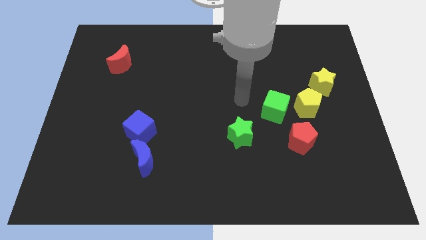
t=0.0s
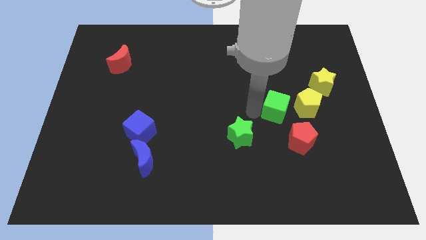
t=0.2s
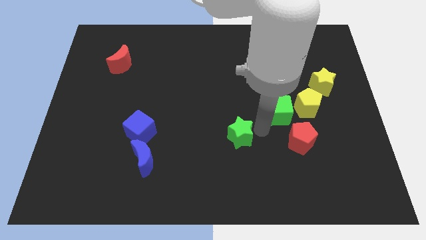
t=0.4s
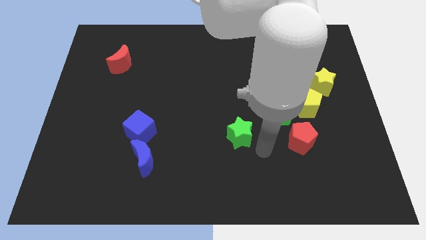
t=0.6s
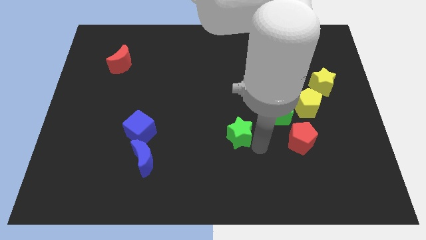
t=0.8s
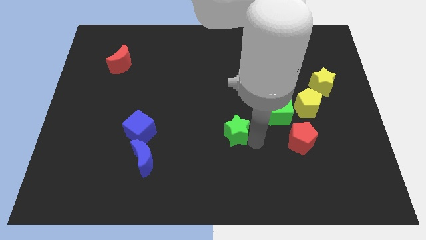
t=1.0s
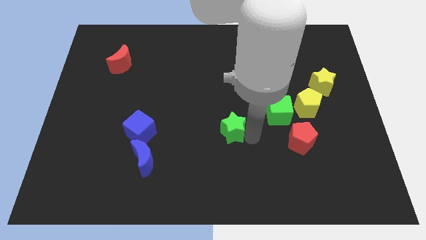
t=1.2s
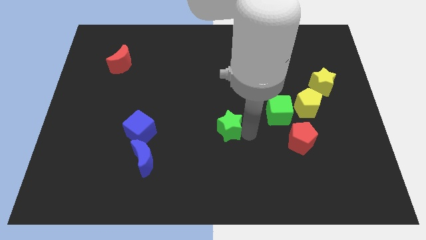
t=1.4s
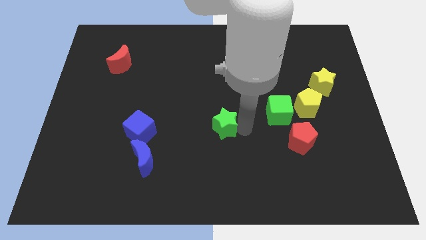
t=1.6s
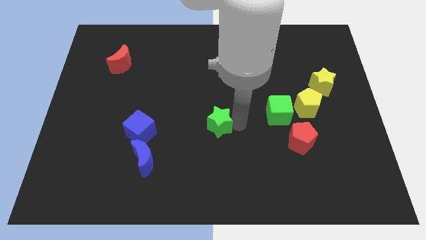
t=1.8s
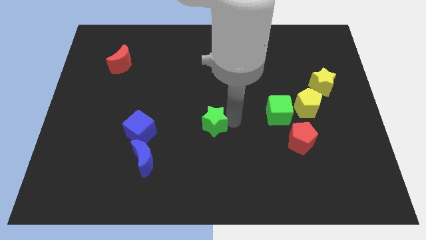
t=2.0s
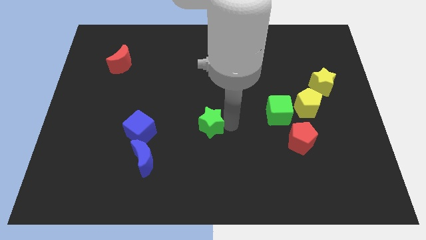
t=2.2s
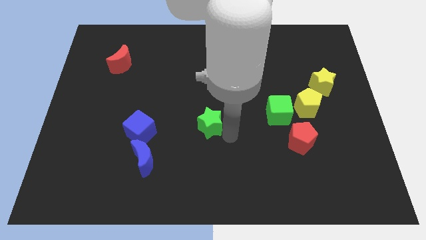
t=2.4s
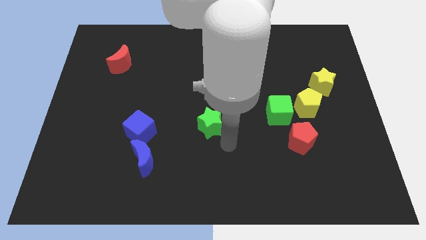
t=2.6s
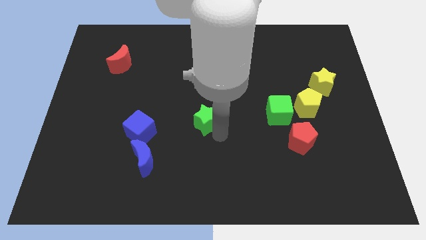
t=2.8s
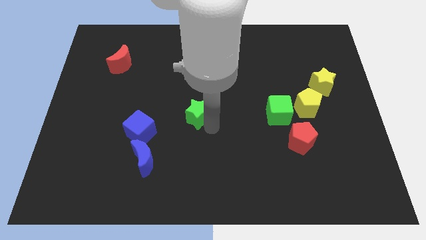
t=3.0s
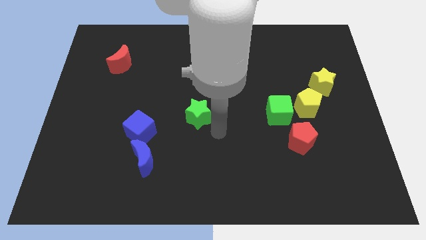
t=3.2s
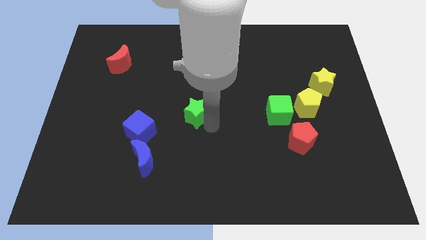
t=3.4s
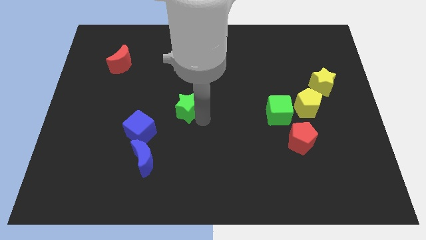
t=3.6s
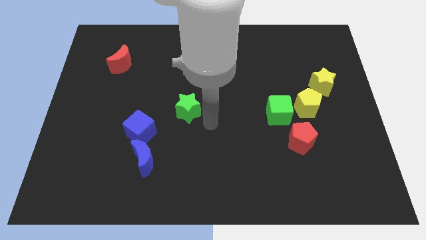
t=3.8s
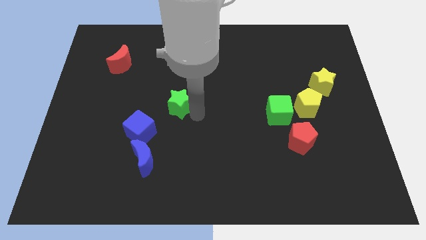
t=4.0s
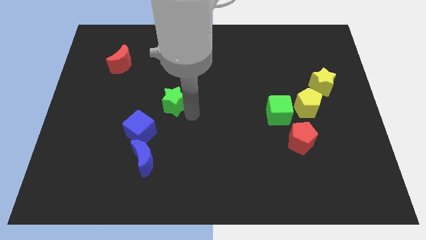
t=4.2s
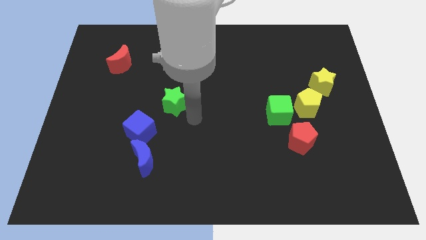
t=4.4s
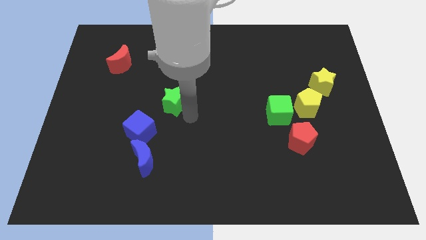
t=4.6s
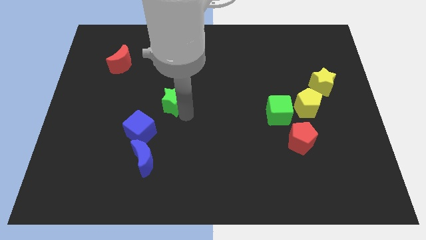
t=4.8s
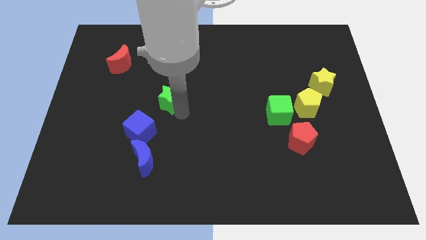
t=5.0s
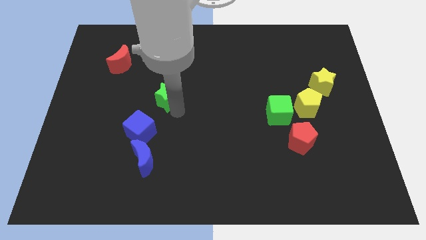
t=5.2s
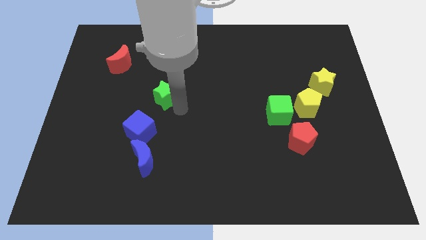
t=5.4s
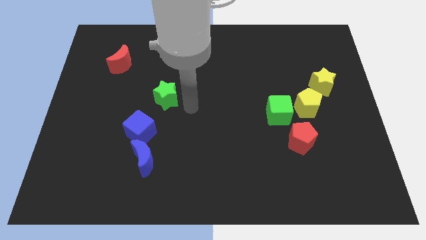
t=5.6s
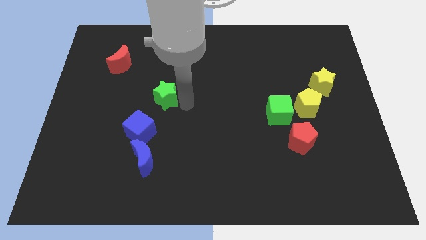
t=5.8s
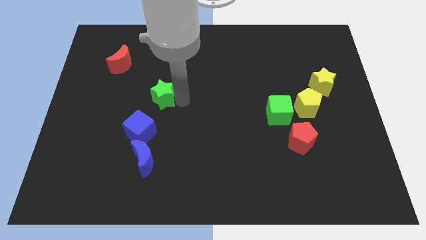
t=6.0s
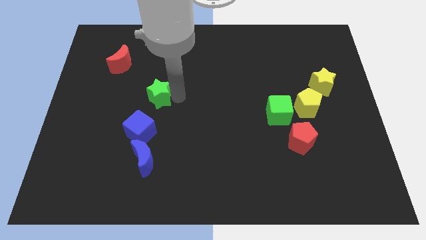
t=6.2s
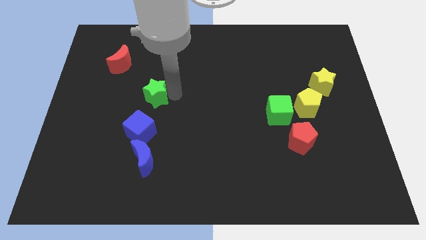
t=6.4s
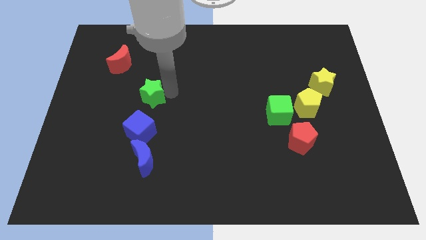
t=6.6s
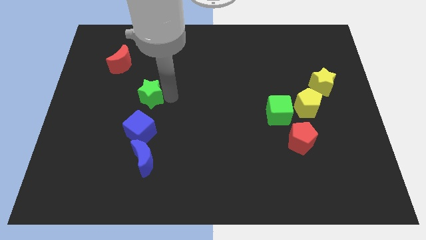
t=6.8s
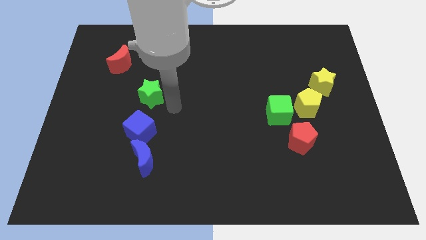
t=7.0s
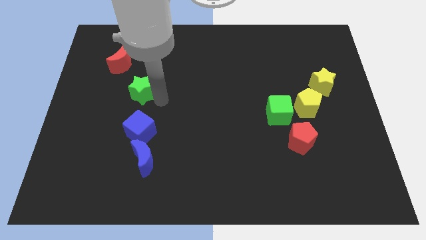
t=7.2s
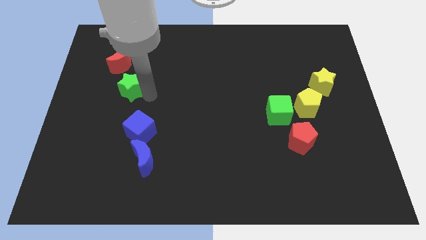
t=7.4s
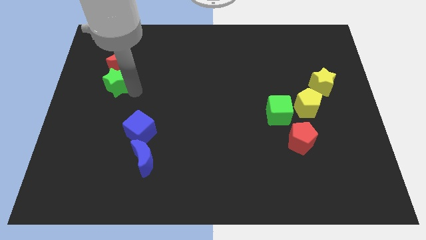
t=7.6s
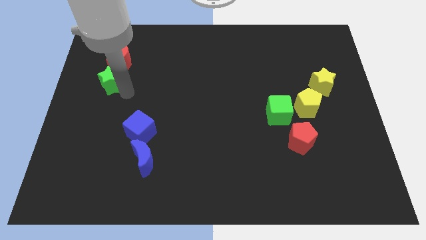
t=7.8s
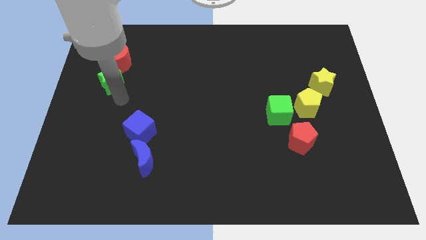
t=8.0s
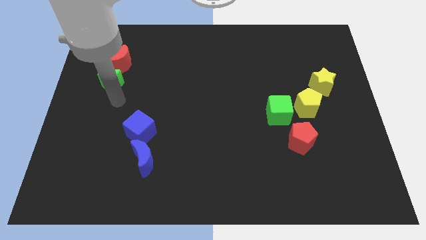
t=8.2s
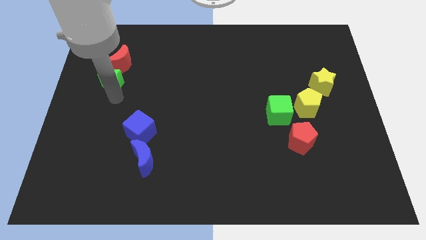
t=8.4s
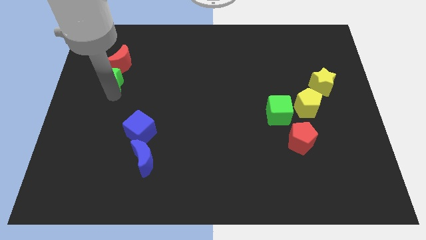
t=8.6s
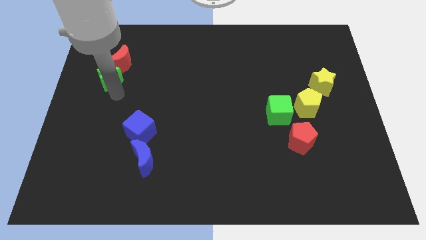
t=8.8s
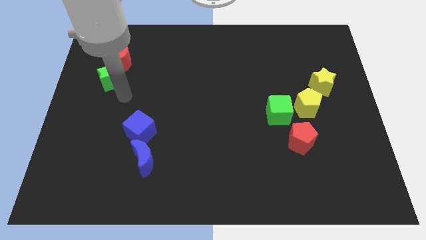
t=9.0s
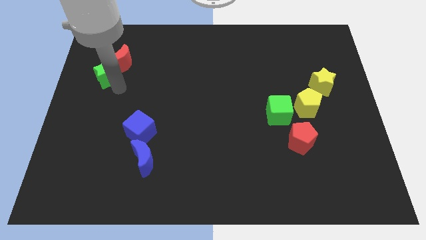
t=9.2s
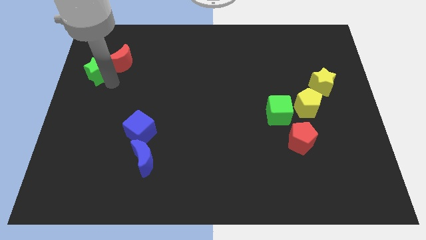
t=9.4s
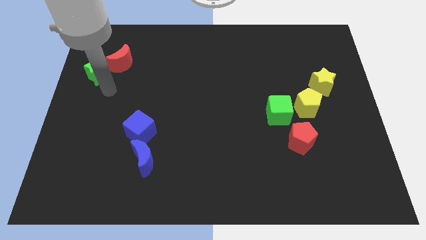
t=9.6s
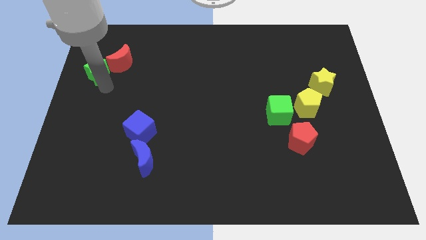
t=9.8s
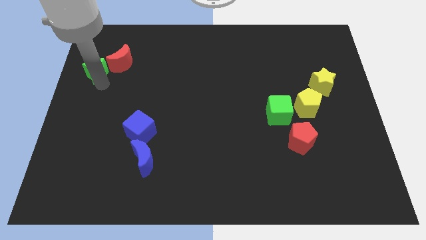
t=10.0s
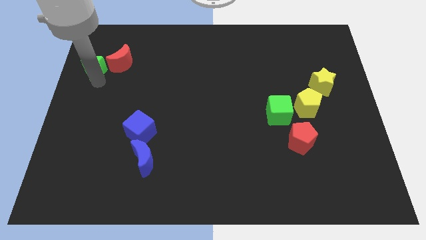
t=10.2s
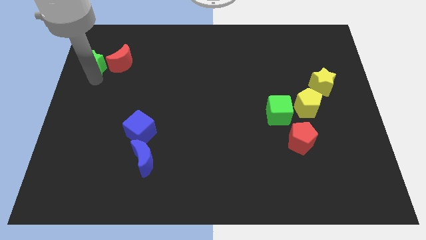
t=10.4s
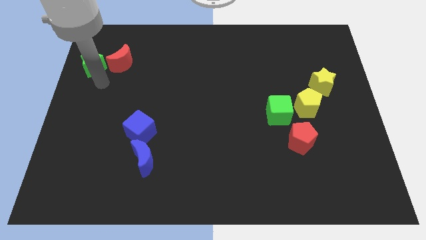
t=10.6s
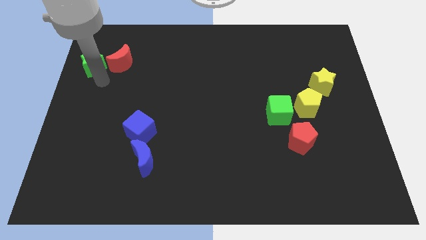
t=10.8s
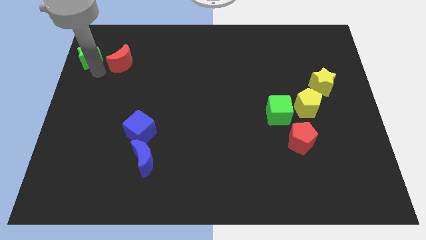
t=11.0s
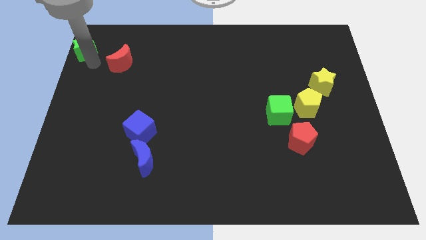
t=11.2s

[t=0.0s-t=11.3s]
put the green star to the top left
